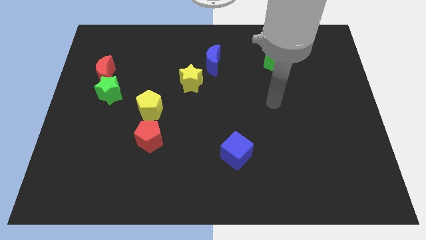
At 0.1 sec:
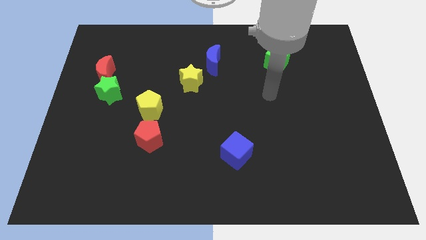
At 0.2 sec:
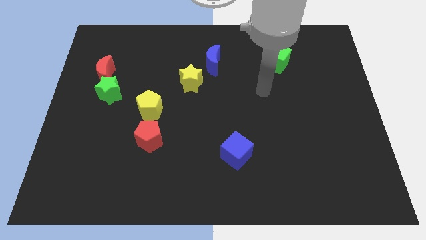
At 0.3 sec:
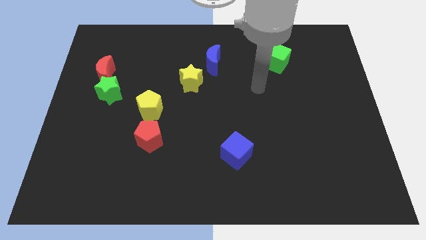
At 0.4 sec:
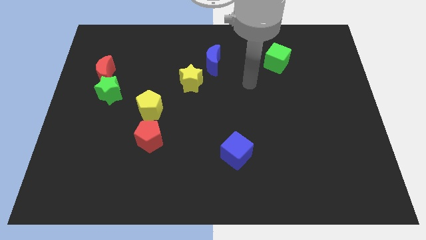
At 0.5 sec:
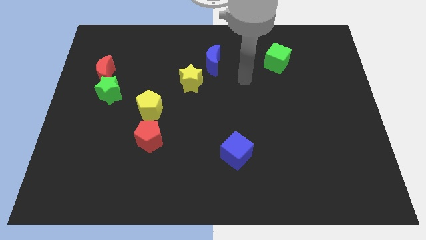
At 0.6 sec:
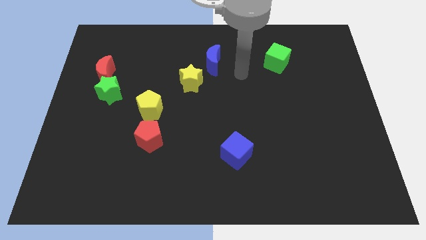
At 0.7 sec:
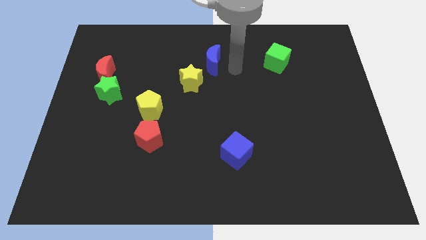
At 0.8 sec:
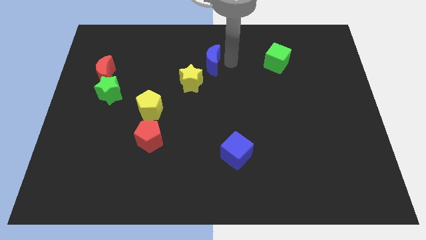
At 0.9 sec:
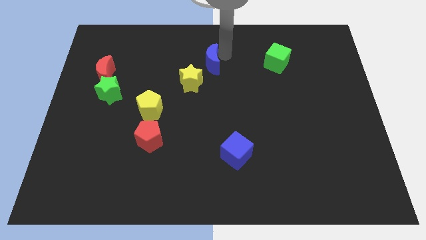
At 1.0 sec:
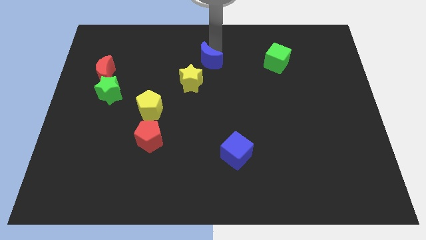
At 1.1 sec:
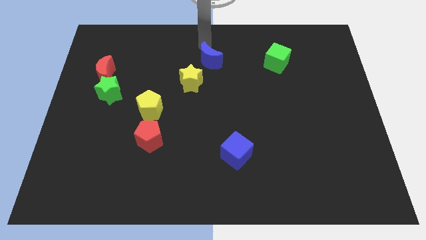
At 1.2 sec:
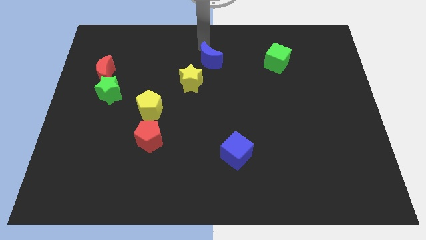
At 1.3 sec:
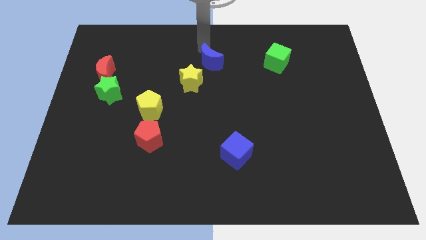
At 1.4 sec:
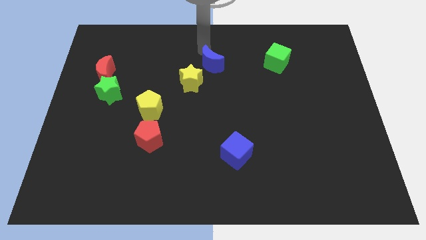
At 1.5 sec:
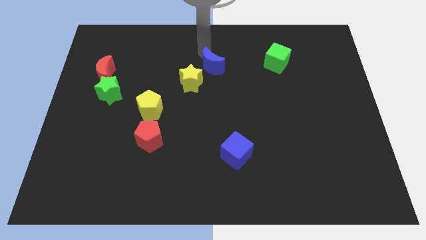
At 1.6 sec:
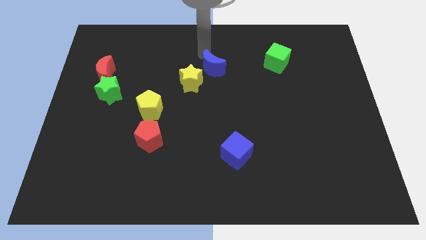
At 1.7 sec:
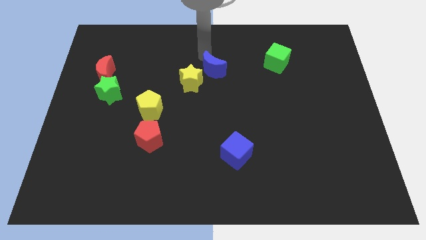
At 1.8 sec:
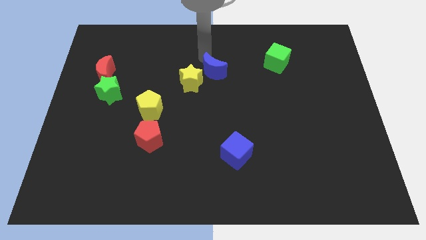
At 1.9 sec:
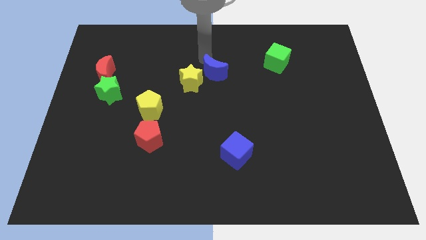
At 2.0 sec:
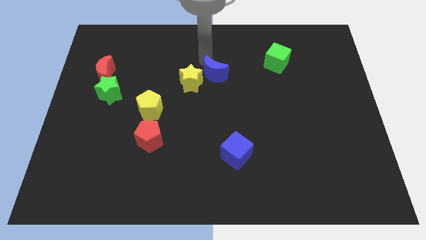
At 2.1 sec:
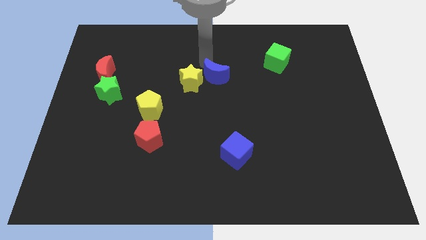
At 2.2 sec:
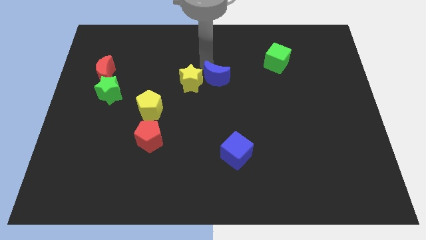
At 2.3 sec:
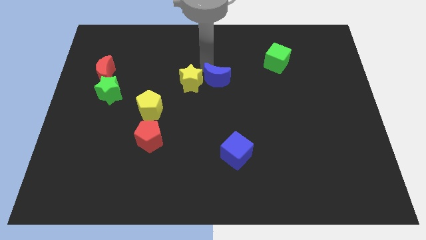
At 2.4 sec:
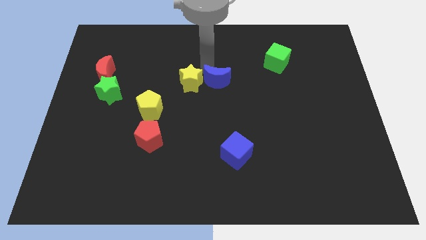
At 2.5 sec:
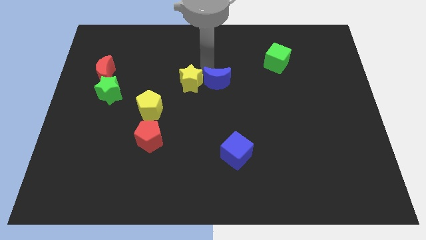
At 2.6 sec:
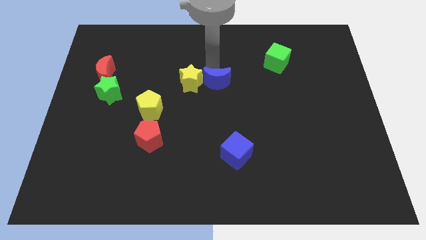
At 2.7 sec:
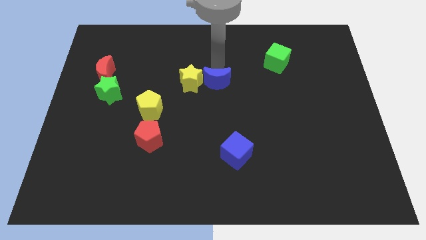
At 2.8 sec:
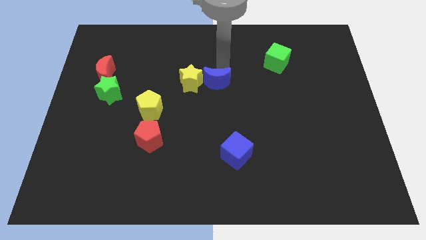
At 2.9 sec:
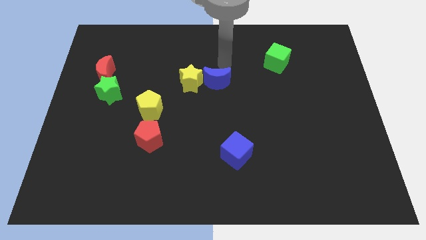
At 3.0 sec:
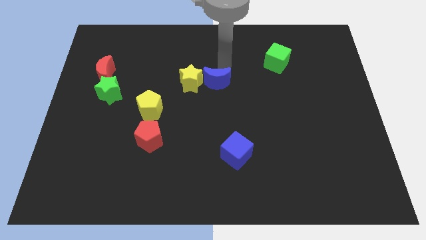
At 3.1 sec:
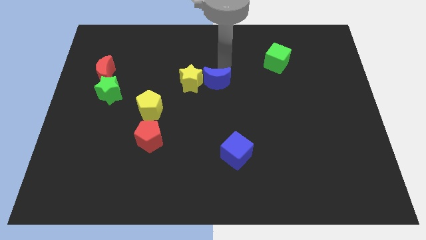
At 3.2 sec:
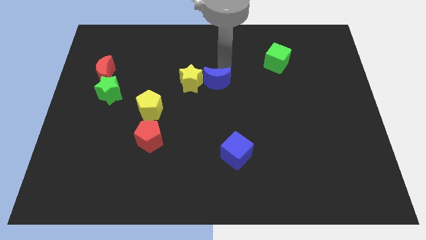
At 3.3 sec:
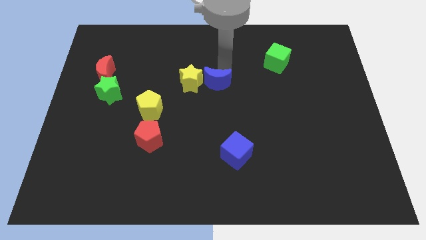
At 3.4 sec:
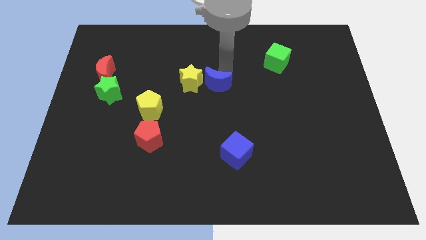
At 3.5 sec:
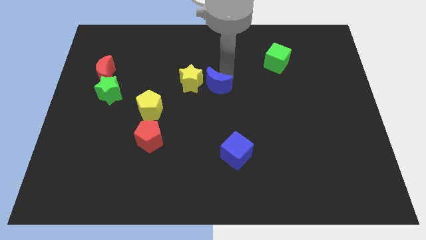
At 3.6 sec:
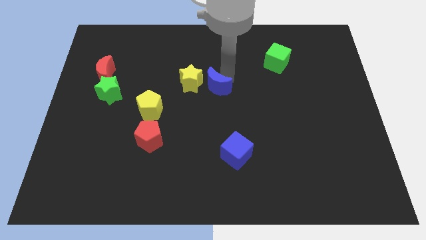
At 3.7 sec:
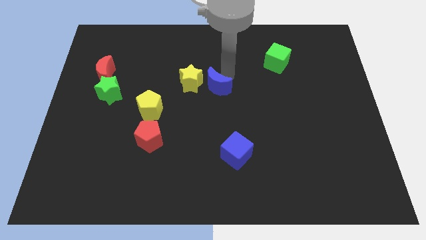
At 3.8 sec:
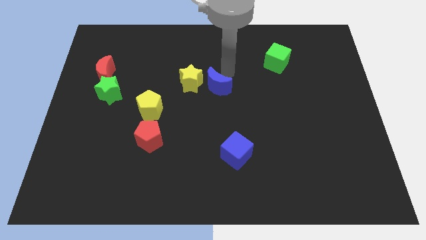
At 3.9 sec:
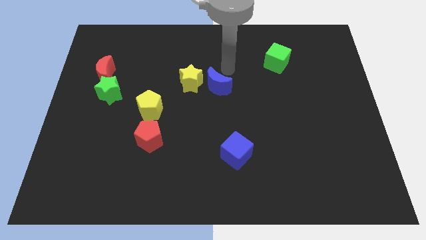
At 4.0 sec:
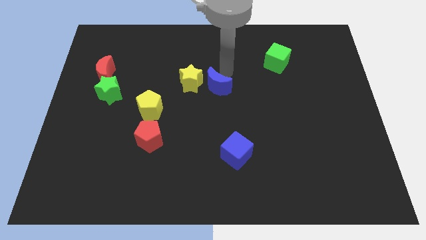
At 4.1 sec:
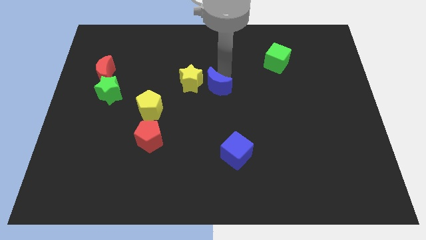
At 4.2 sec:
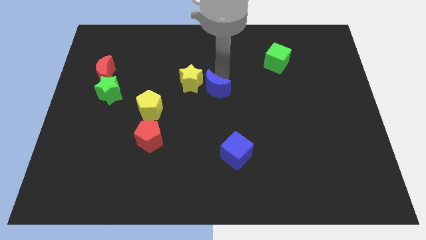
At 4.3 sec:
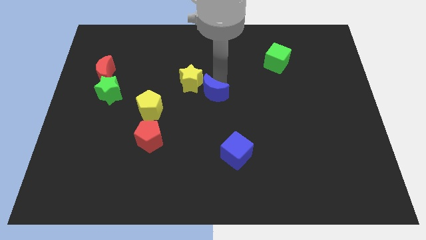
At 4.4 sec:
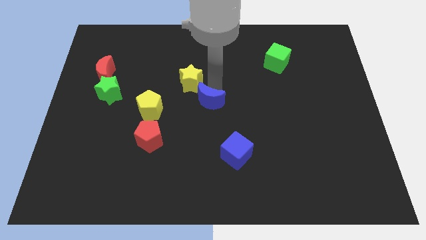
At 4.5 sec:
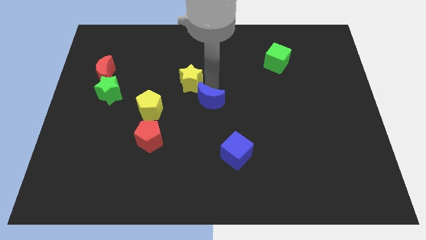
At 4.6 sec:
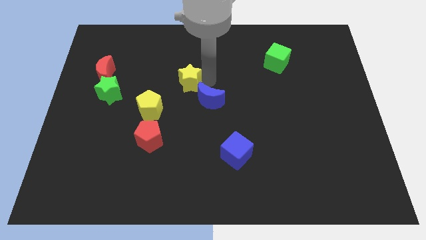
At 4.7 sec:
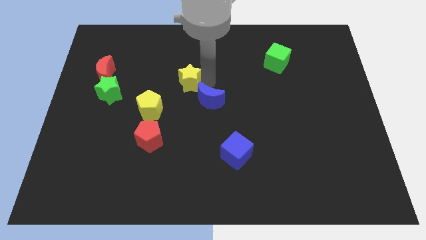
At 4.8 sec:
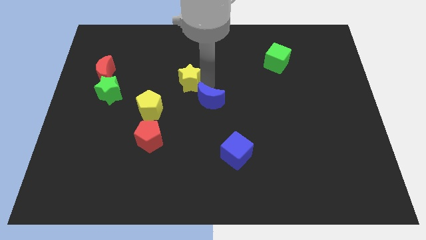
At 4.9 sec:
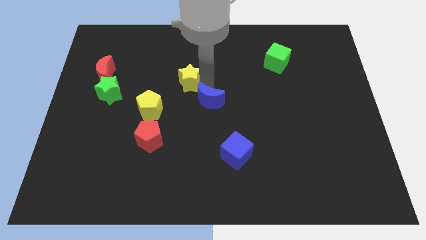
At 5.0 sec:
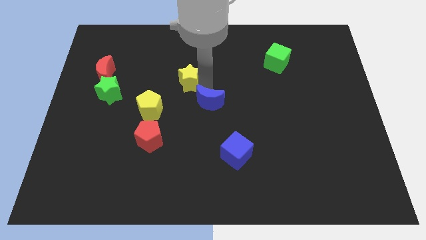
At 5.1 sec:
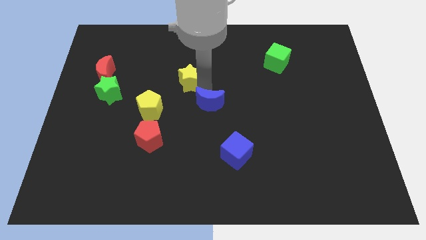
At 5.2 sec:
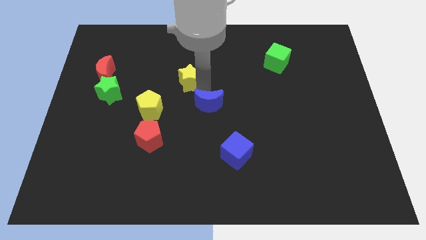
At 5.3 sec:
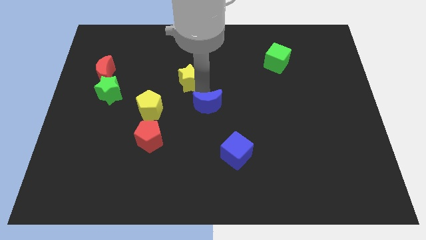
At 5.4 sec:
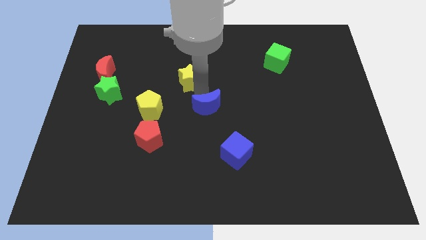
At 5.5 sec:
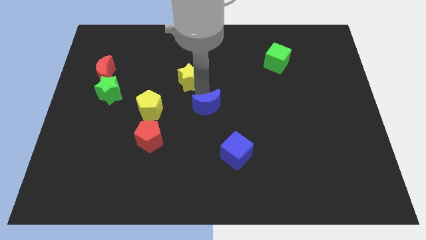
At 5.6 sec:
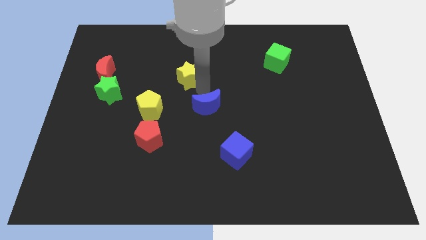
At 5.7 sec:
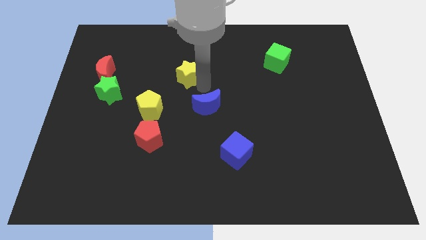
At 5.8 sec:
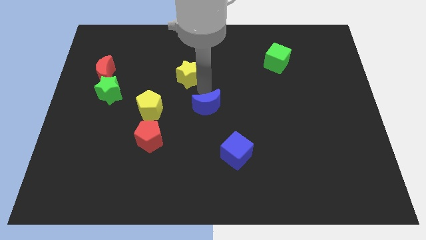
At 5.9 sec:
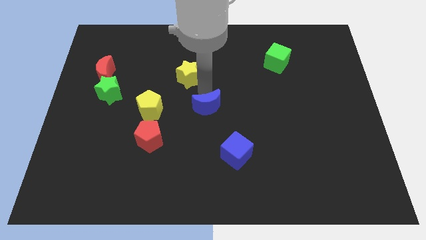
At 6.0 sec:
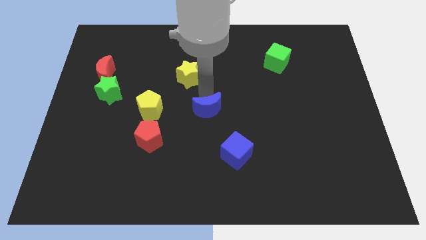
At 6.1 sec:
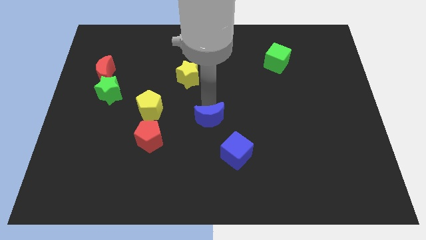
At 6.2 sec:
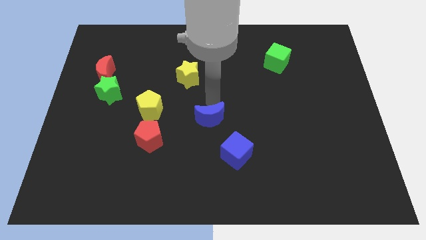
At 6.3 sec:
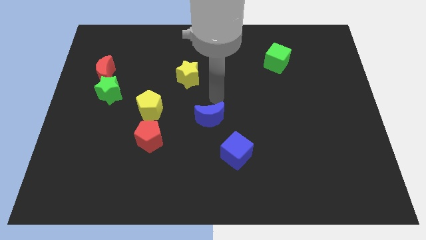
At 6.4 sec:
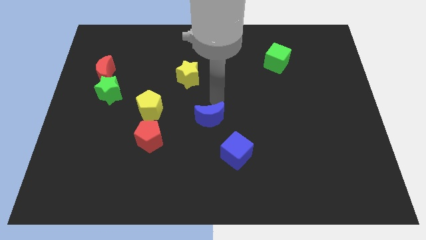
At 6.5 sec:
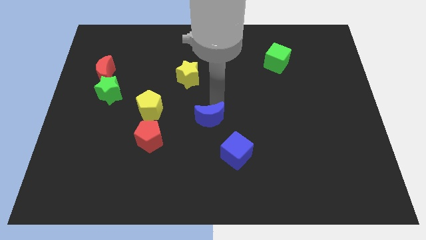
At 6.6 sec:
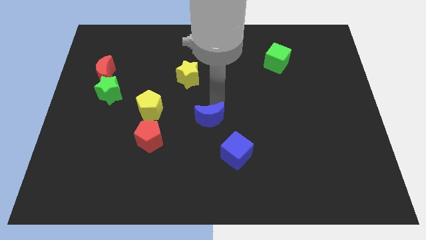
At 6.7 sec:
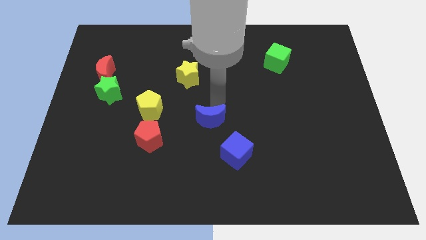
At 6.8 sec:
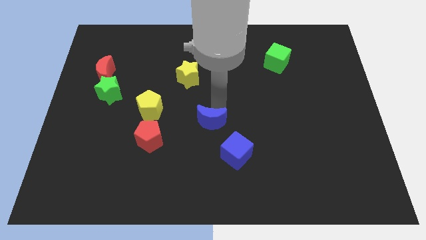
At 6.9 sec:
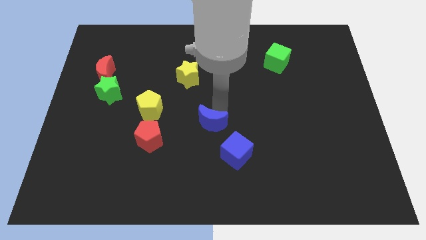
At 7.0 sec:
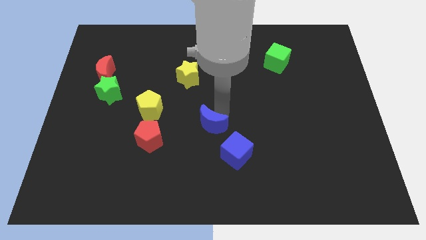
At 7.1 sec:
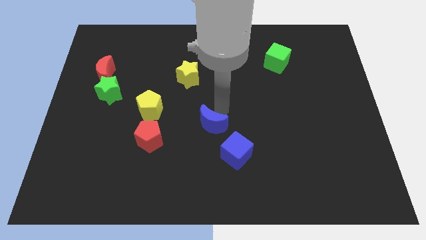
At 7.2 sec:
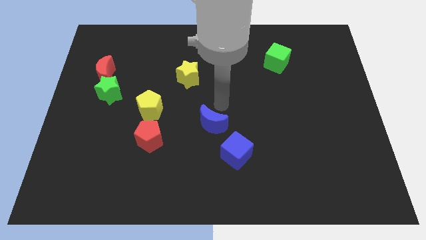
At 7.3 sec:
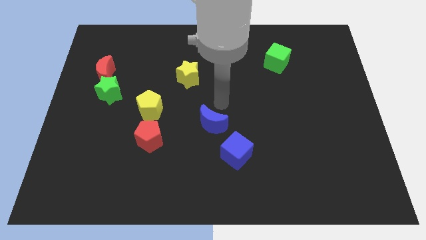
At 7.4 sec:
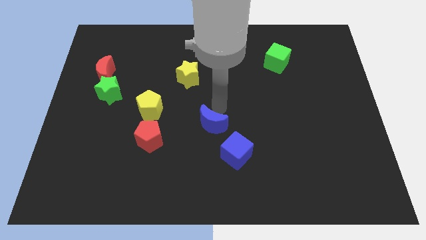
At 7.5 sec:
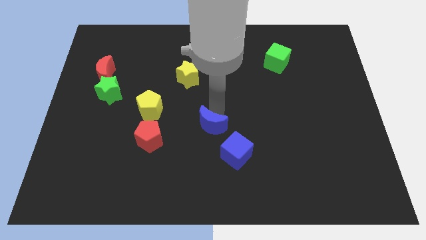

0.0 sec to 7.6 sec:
move the blue moon downwards

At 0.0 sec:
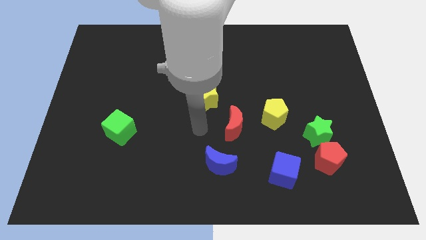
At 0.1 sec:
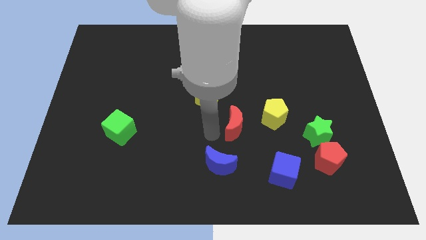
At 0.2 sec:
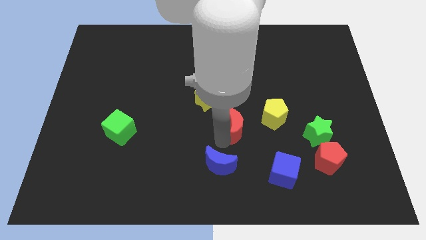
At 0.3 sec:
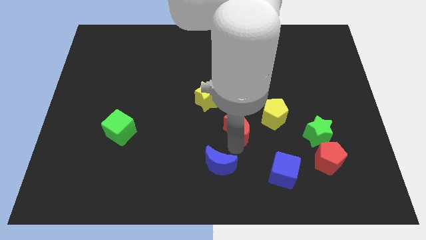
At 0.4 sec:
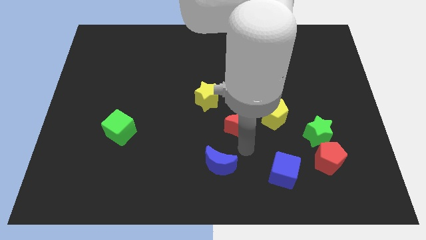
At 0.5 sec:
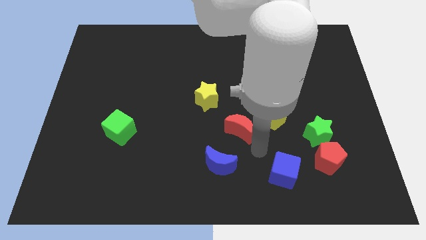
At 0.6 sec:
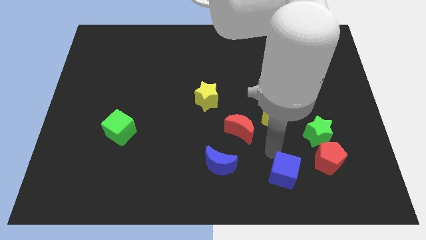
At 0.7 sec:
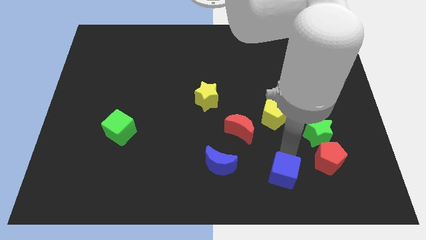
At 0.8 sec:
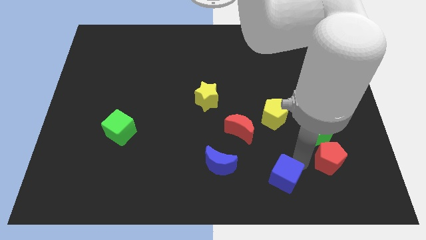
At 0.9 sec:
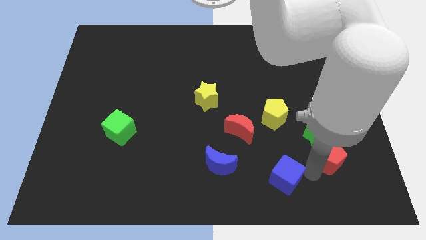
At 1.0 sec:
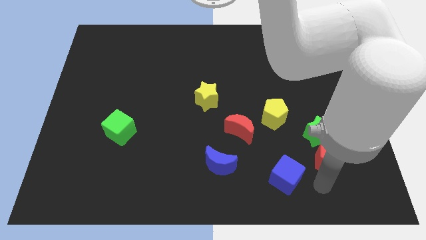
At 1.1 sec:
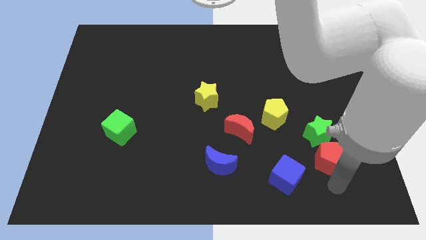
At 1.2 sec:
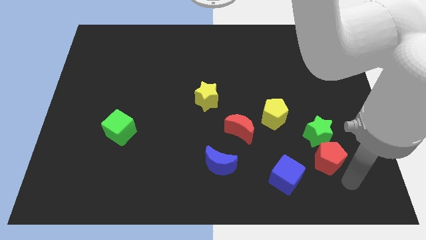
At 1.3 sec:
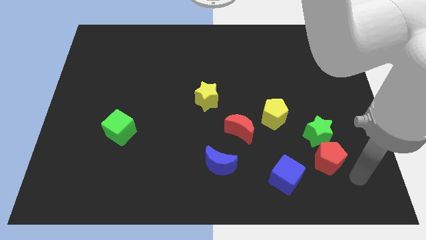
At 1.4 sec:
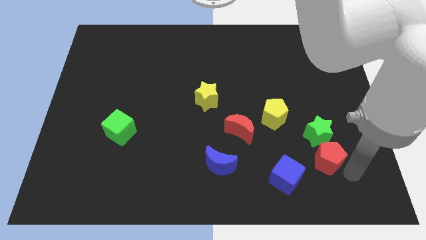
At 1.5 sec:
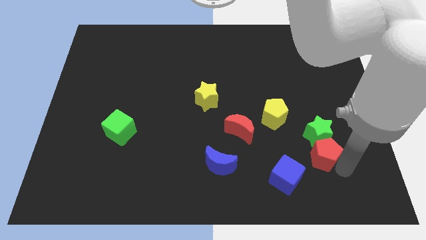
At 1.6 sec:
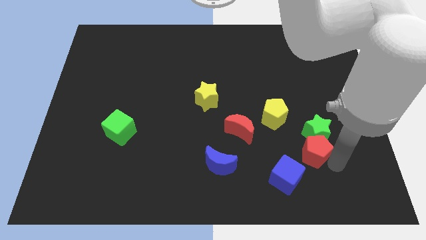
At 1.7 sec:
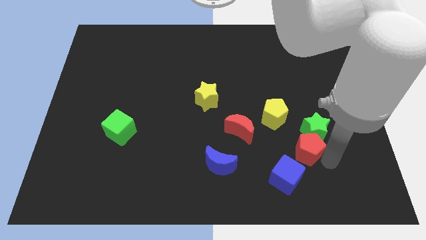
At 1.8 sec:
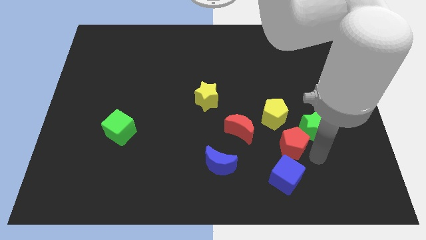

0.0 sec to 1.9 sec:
slightly move the red pentagon upwards and then left
